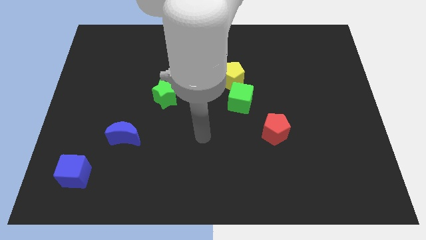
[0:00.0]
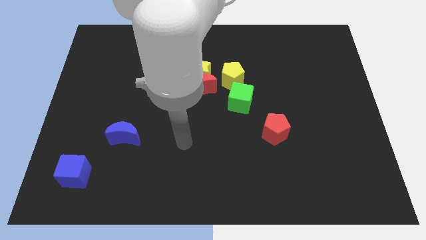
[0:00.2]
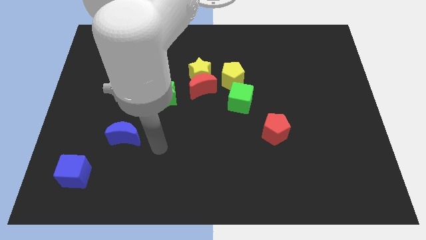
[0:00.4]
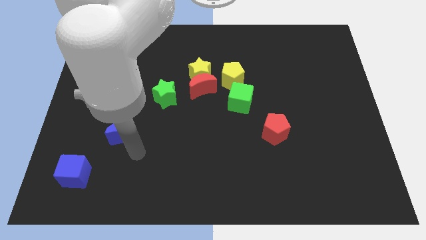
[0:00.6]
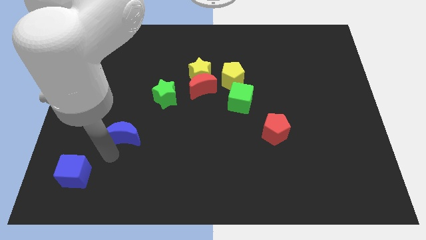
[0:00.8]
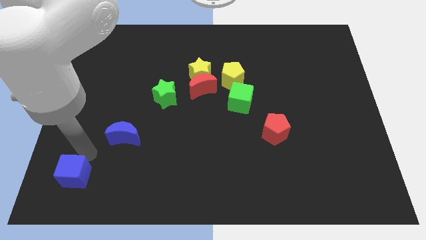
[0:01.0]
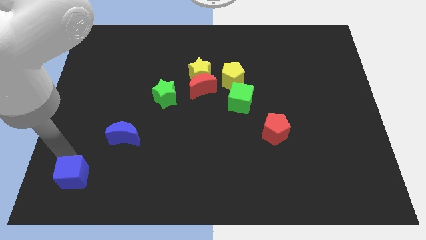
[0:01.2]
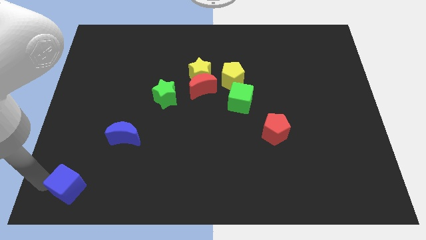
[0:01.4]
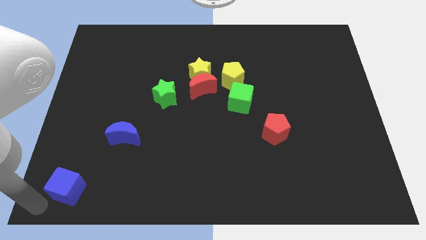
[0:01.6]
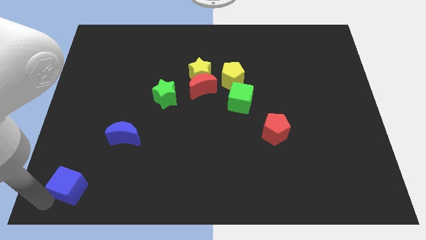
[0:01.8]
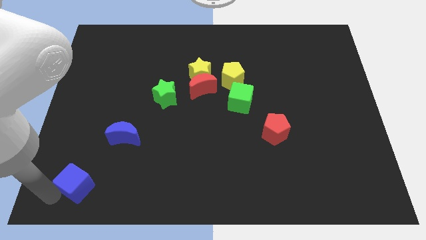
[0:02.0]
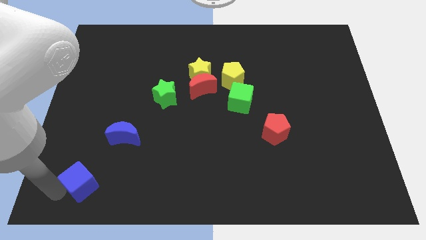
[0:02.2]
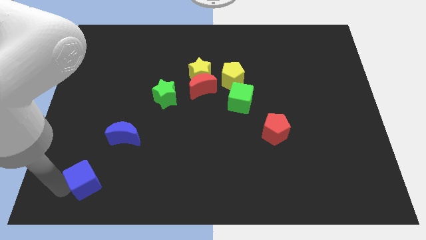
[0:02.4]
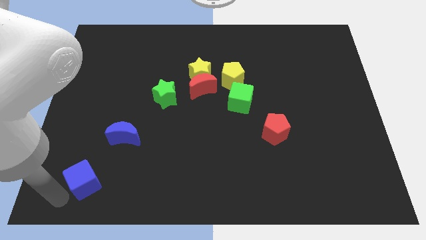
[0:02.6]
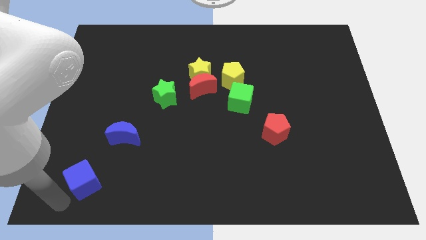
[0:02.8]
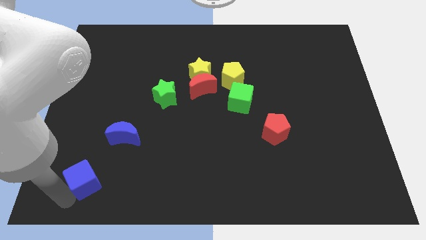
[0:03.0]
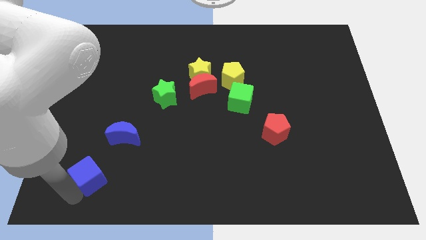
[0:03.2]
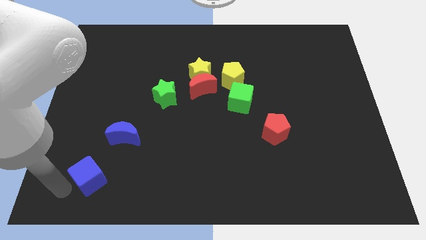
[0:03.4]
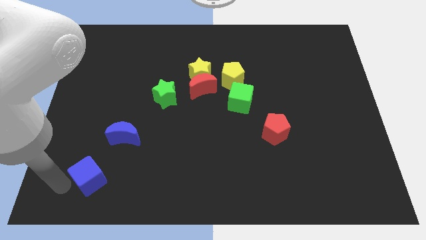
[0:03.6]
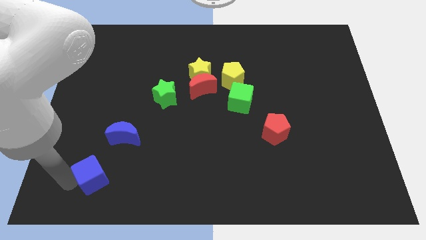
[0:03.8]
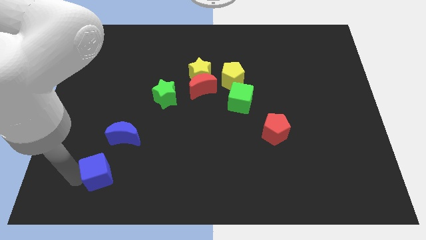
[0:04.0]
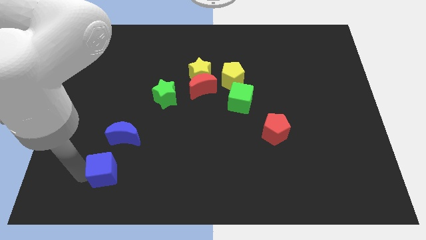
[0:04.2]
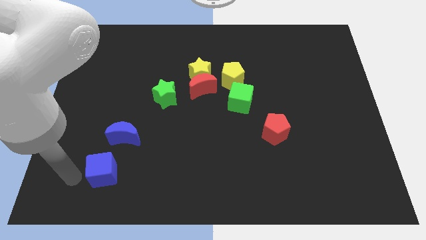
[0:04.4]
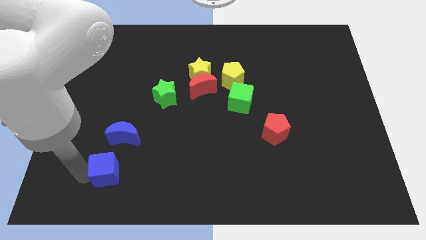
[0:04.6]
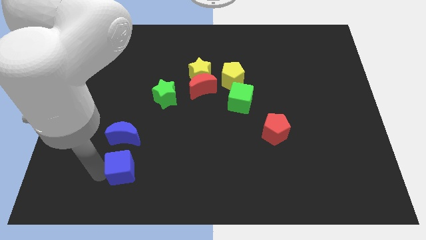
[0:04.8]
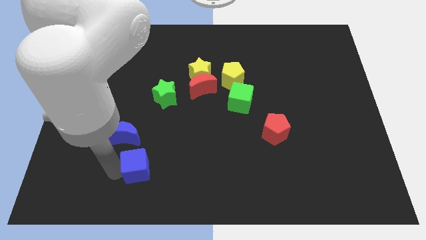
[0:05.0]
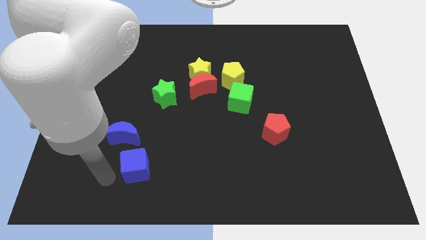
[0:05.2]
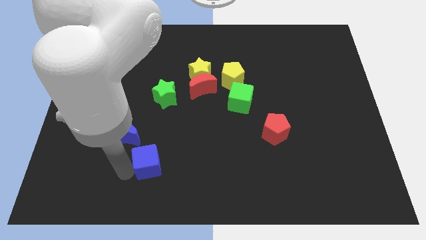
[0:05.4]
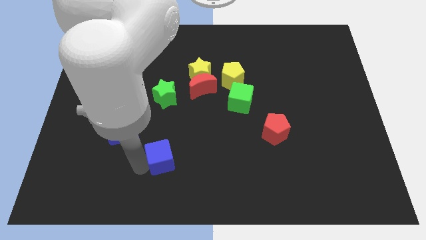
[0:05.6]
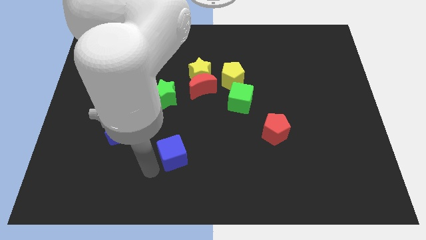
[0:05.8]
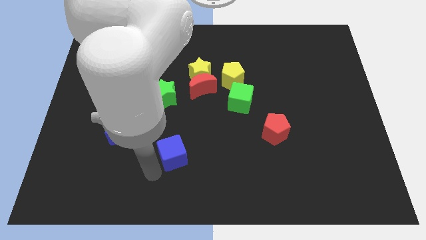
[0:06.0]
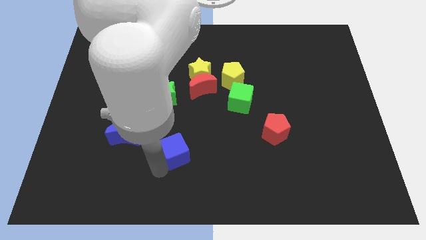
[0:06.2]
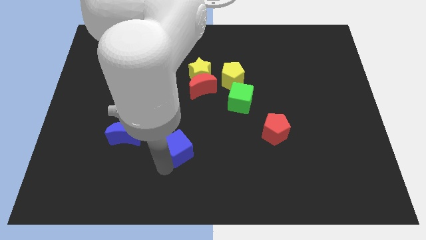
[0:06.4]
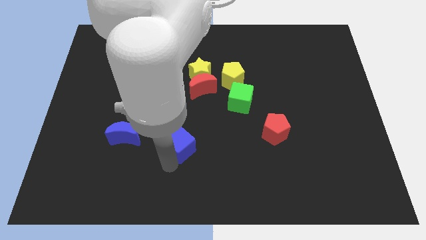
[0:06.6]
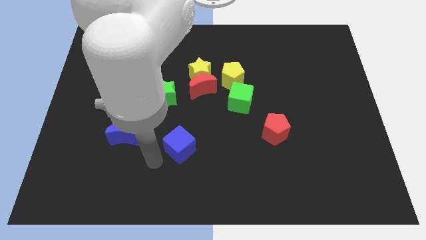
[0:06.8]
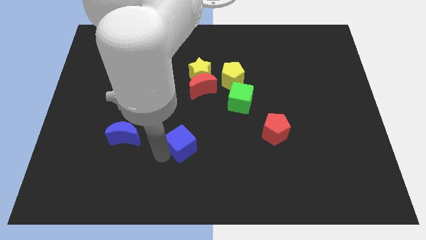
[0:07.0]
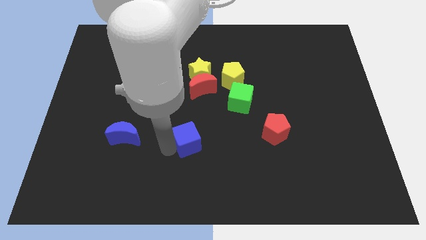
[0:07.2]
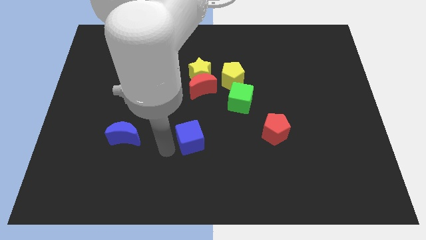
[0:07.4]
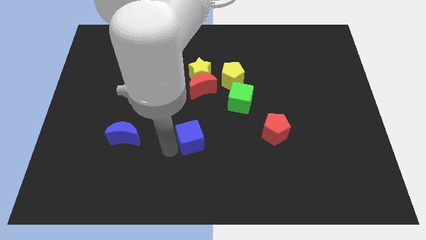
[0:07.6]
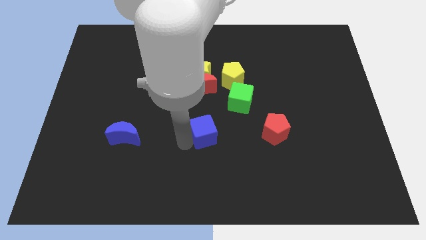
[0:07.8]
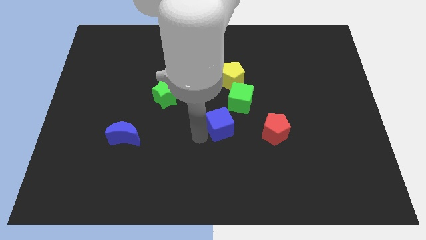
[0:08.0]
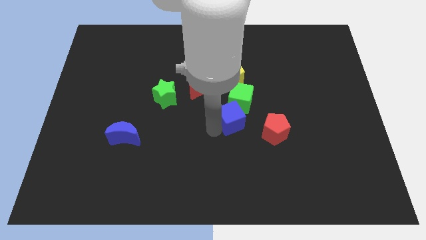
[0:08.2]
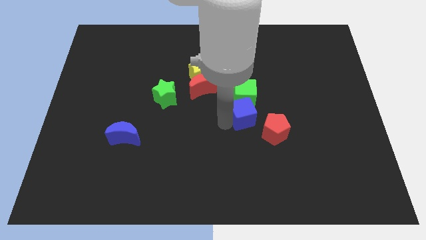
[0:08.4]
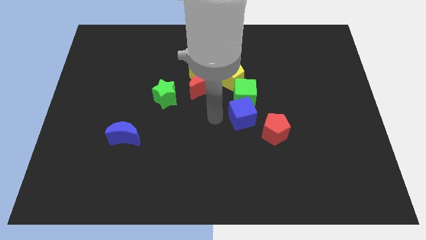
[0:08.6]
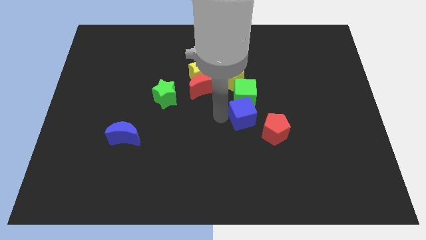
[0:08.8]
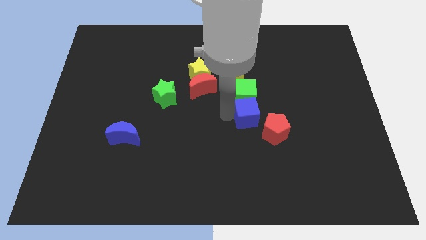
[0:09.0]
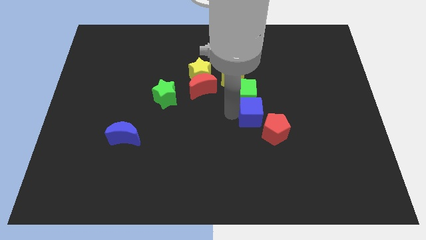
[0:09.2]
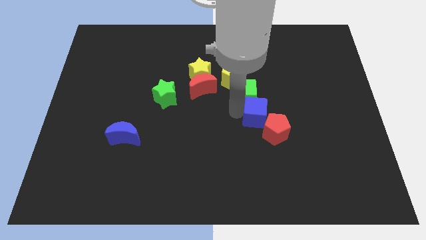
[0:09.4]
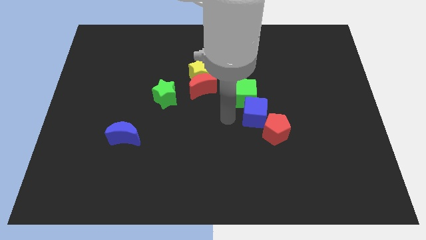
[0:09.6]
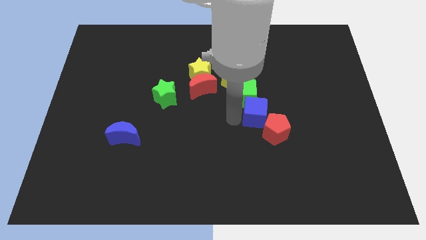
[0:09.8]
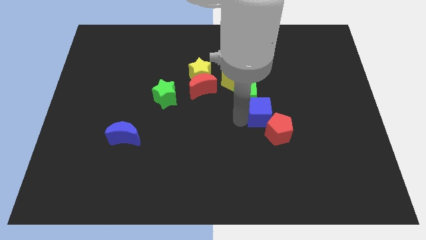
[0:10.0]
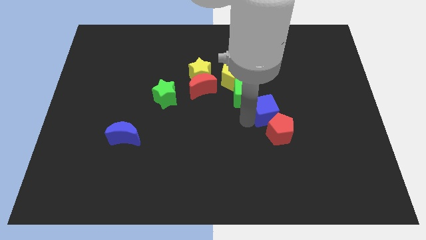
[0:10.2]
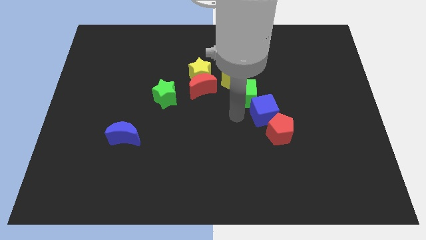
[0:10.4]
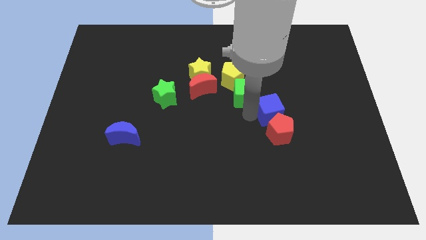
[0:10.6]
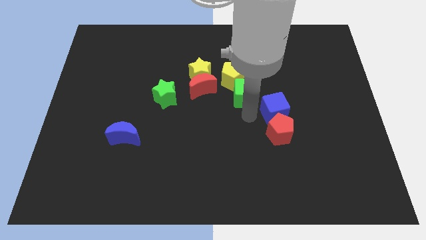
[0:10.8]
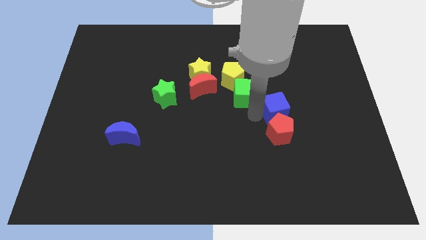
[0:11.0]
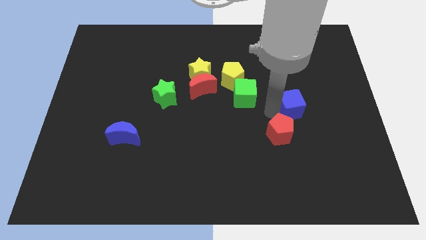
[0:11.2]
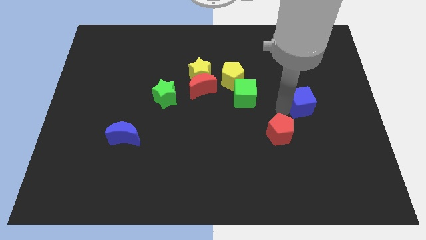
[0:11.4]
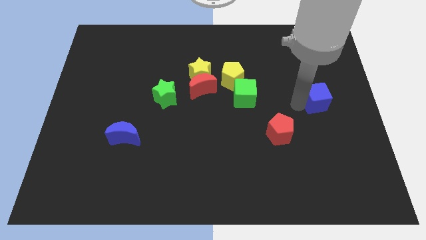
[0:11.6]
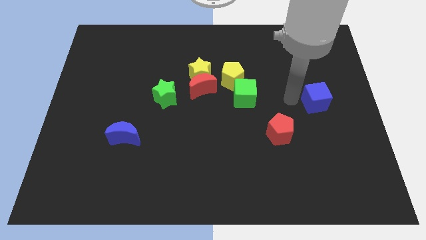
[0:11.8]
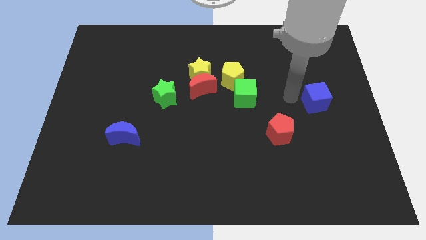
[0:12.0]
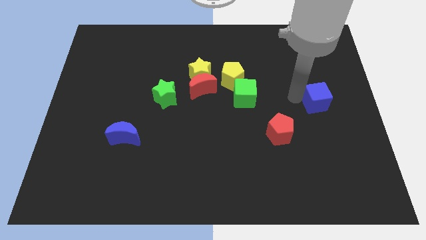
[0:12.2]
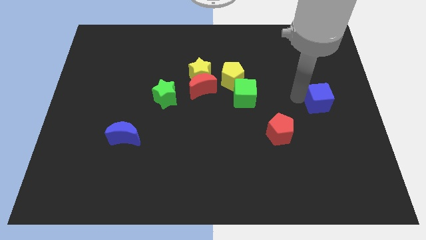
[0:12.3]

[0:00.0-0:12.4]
push the blue cube to the center right

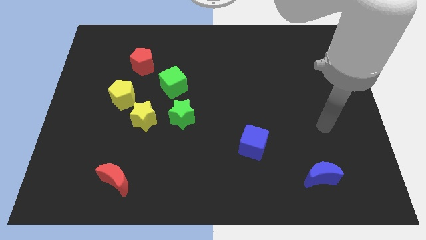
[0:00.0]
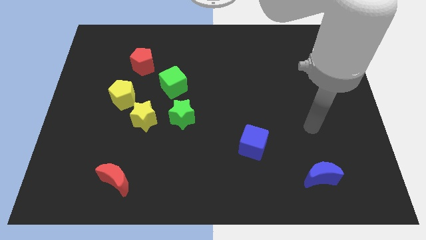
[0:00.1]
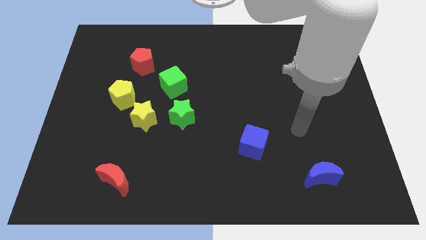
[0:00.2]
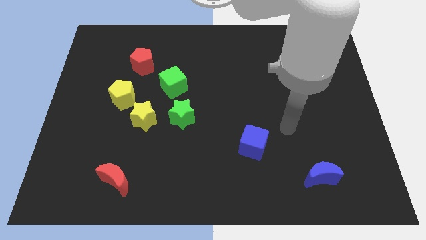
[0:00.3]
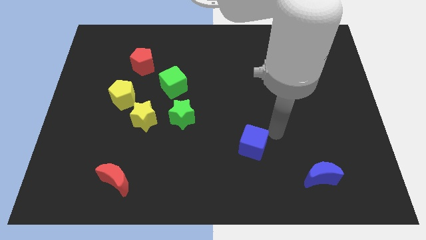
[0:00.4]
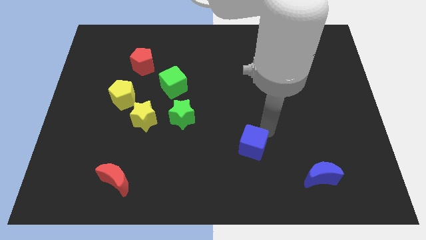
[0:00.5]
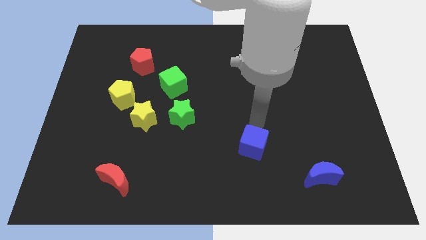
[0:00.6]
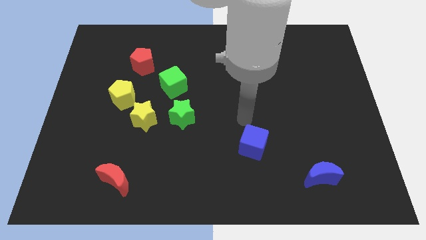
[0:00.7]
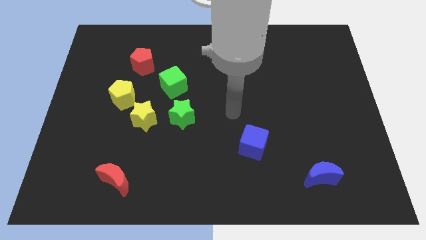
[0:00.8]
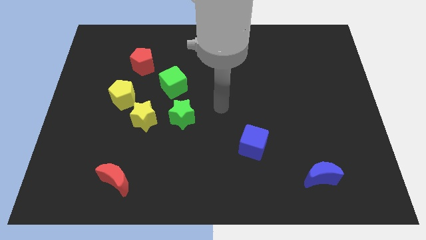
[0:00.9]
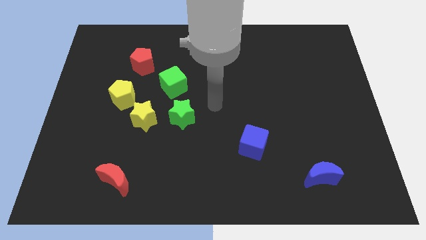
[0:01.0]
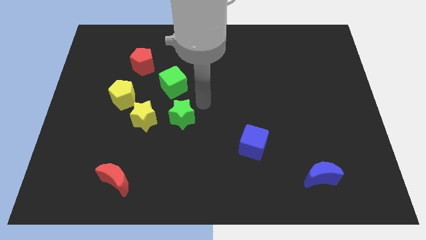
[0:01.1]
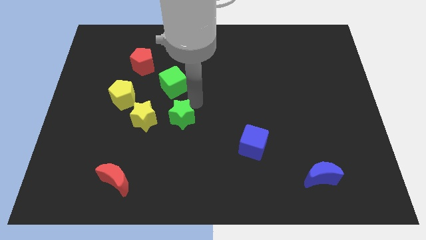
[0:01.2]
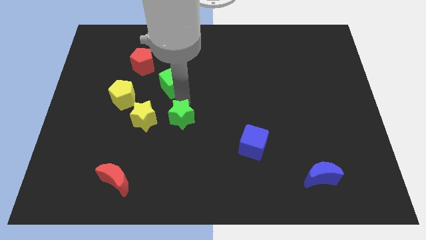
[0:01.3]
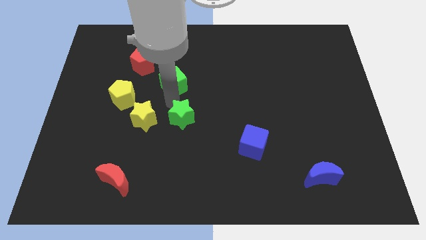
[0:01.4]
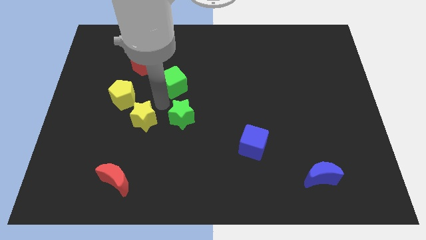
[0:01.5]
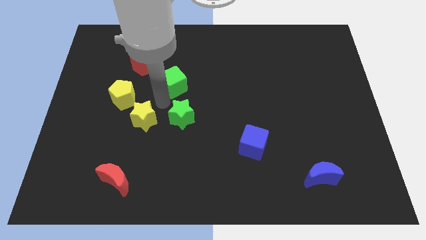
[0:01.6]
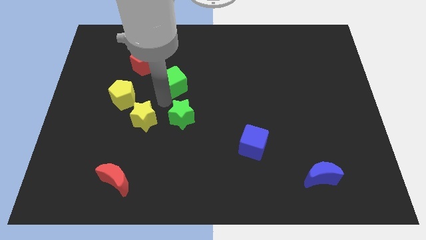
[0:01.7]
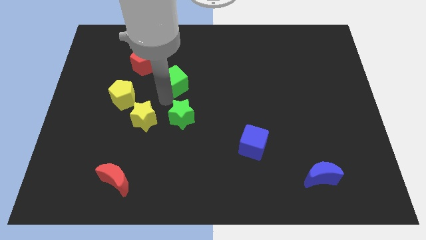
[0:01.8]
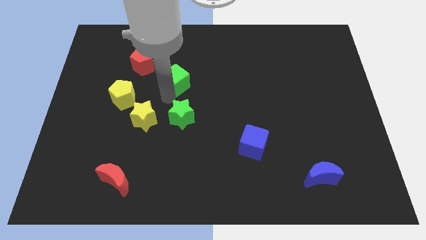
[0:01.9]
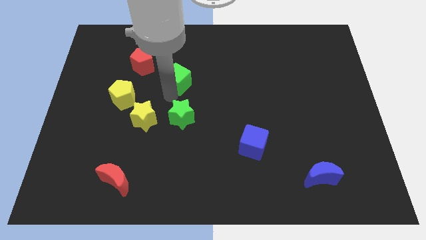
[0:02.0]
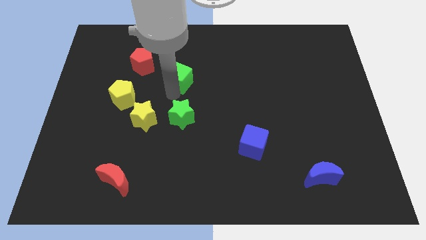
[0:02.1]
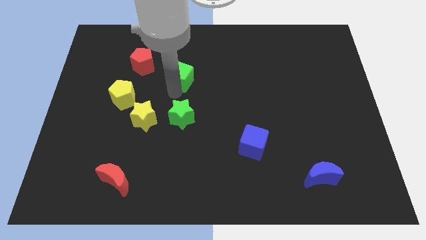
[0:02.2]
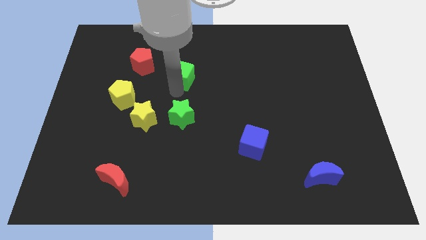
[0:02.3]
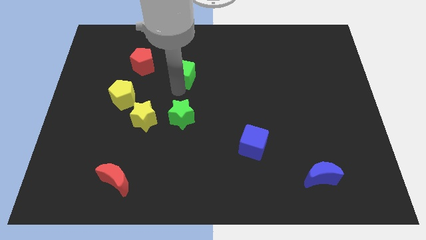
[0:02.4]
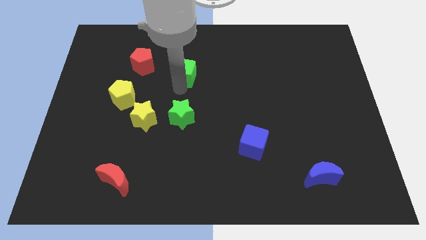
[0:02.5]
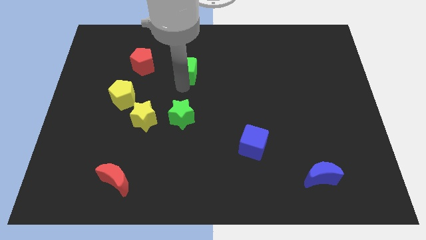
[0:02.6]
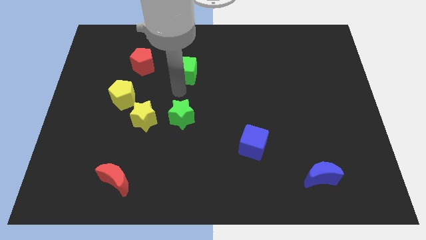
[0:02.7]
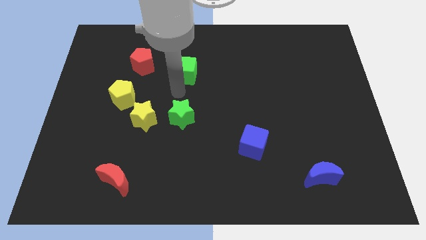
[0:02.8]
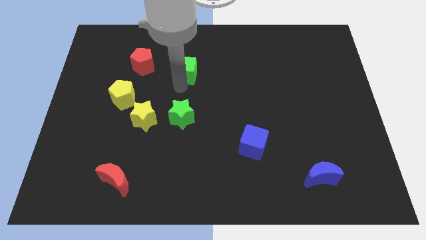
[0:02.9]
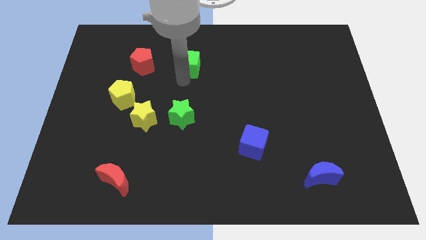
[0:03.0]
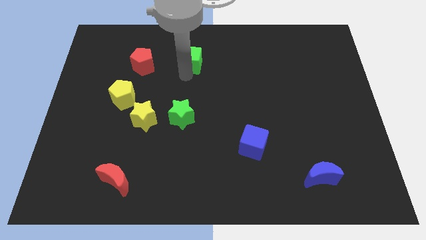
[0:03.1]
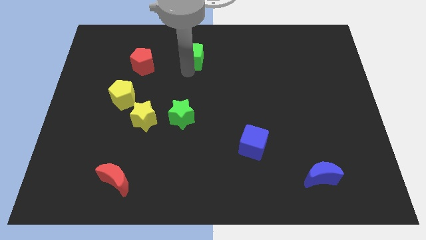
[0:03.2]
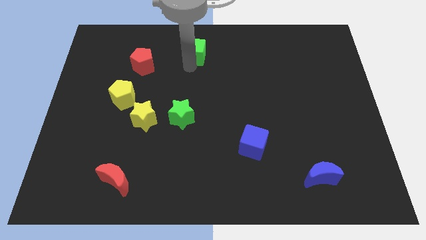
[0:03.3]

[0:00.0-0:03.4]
move the green cube to the top side
